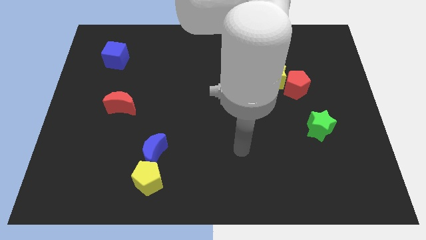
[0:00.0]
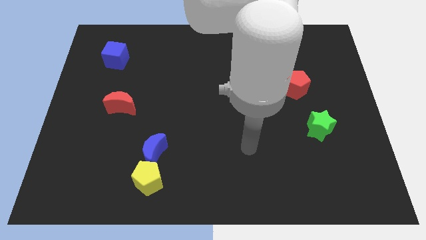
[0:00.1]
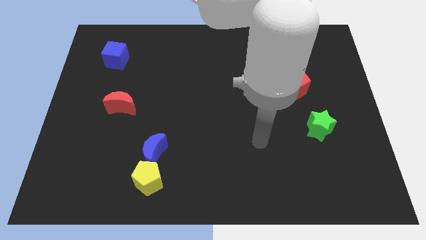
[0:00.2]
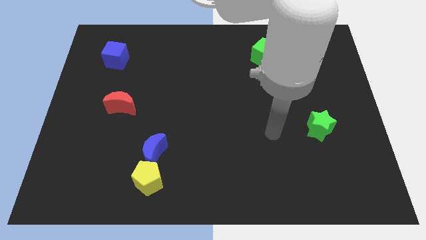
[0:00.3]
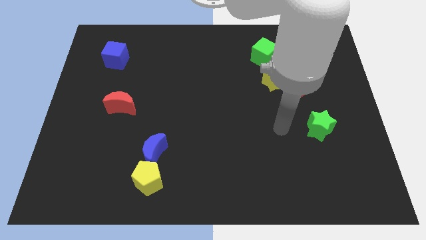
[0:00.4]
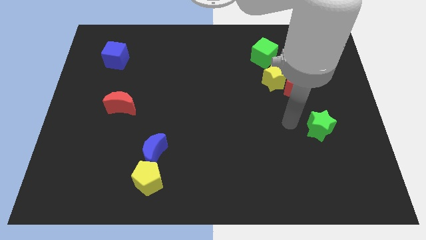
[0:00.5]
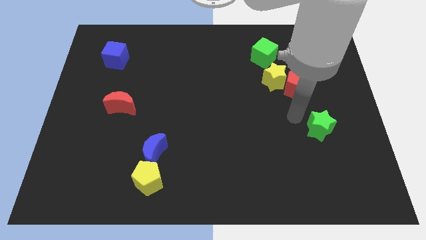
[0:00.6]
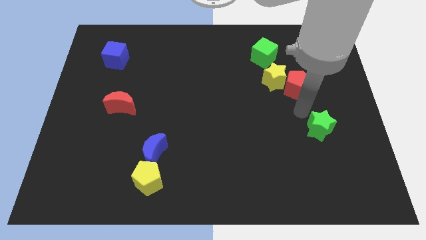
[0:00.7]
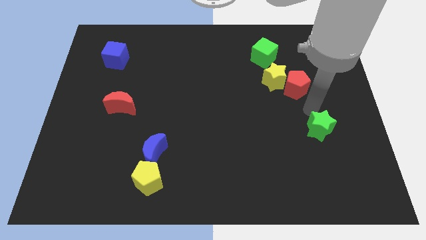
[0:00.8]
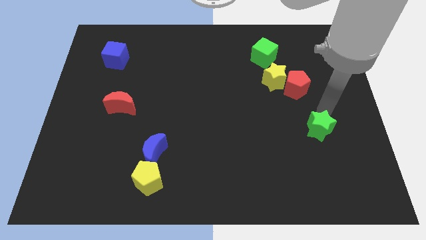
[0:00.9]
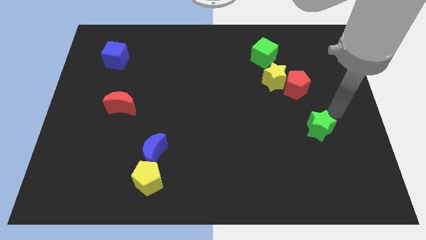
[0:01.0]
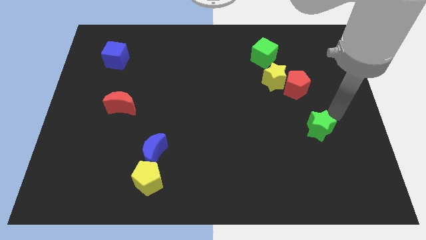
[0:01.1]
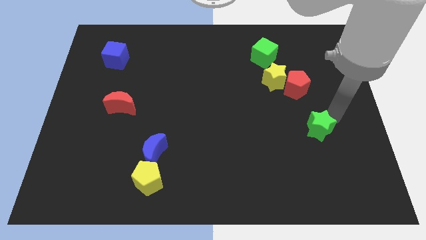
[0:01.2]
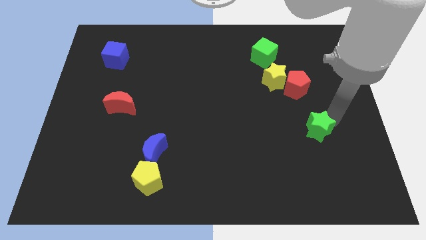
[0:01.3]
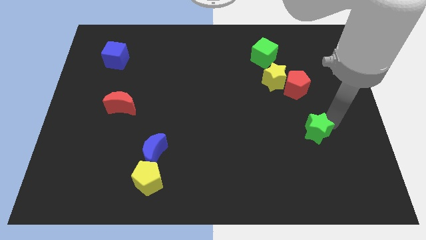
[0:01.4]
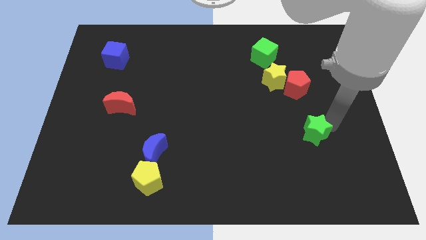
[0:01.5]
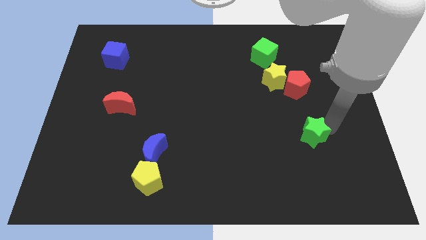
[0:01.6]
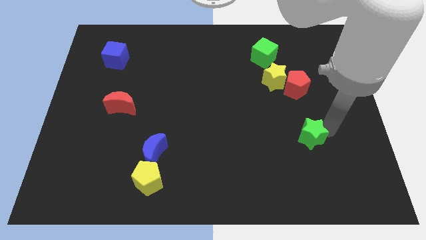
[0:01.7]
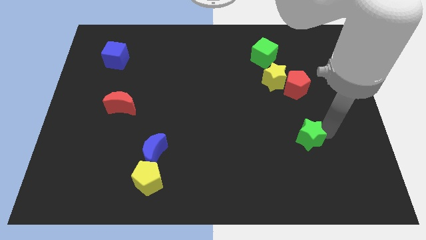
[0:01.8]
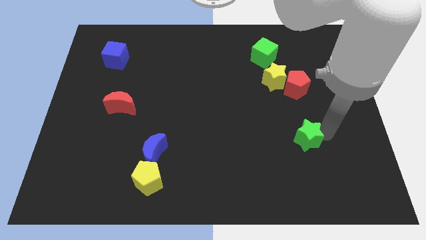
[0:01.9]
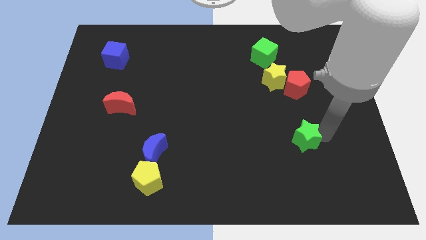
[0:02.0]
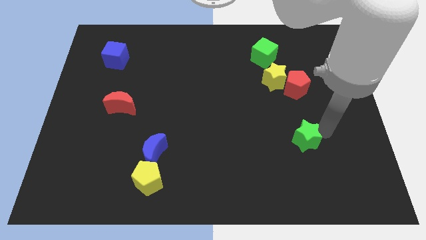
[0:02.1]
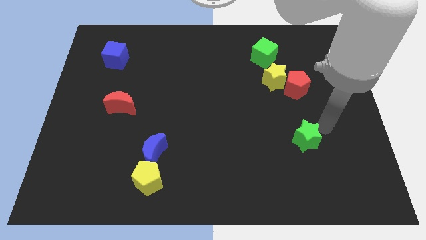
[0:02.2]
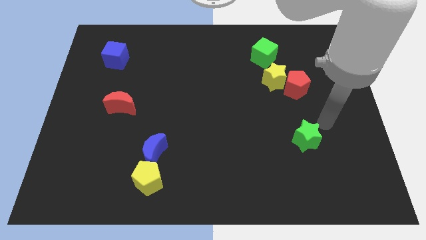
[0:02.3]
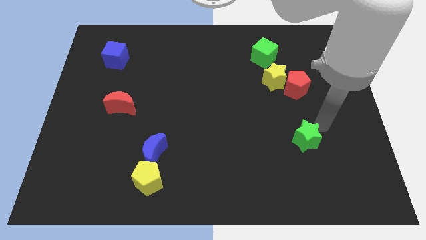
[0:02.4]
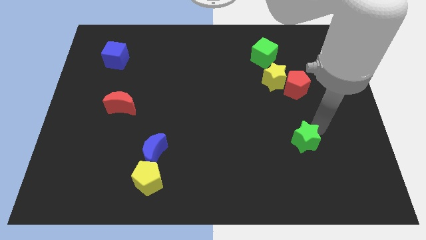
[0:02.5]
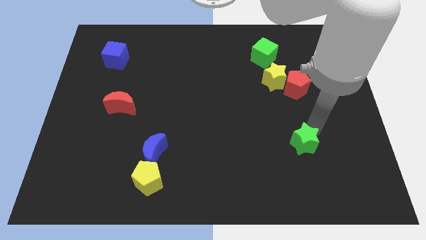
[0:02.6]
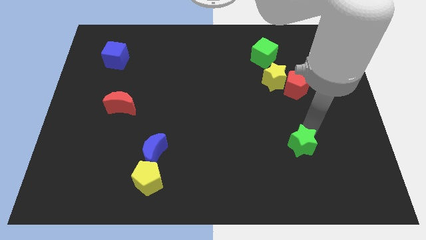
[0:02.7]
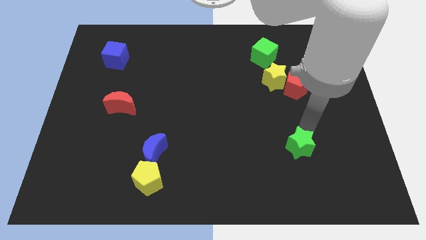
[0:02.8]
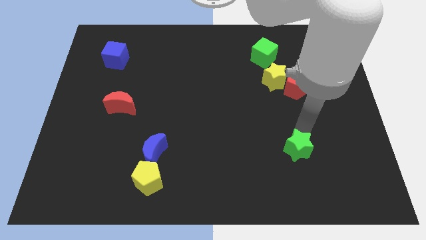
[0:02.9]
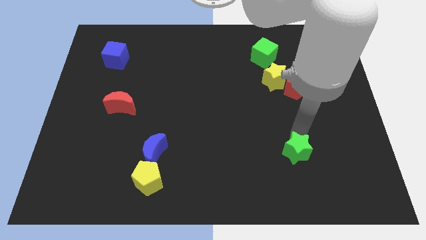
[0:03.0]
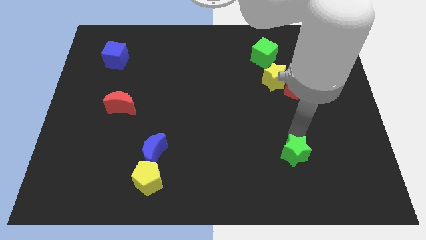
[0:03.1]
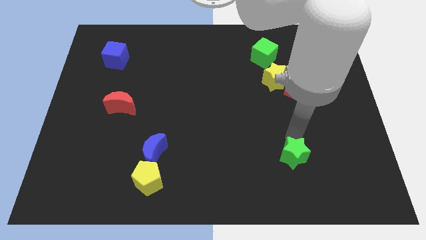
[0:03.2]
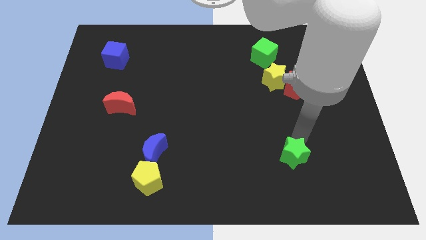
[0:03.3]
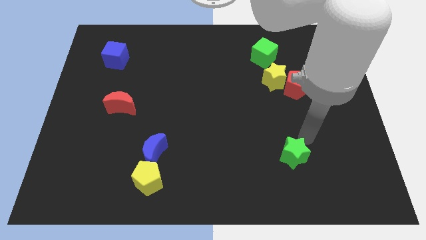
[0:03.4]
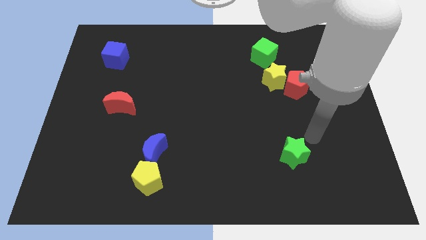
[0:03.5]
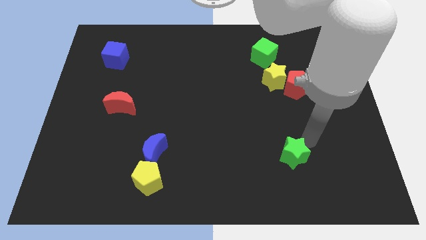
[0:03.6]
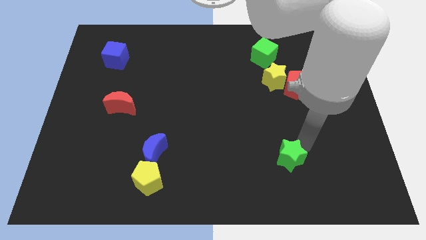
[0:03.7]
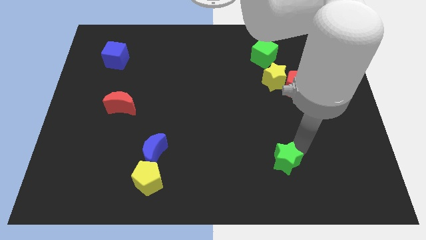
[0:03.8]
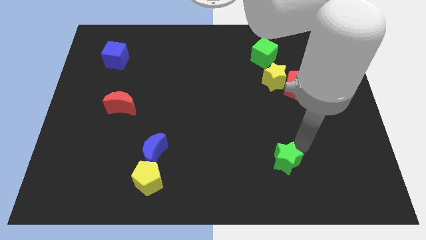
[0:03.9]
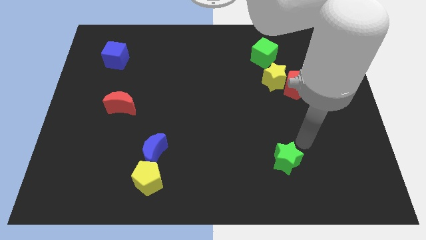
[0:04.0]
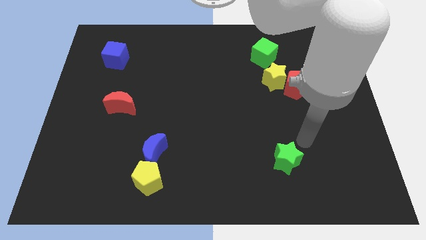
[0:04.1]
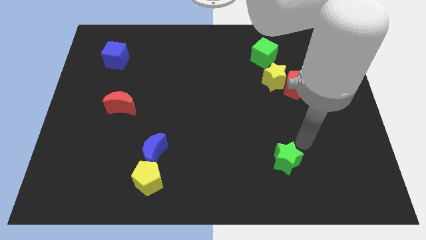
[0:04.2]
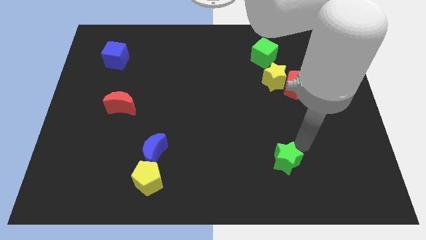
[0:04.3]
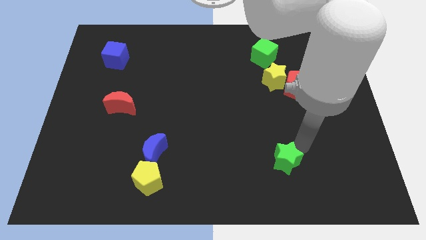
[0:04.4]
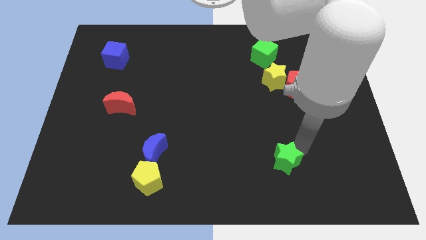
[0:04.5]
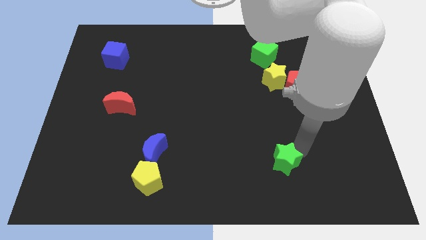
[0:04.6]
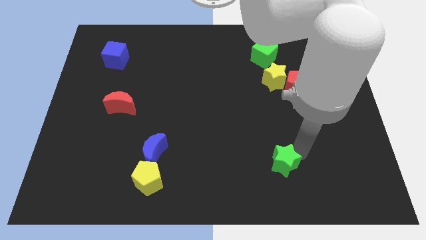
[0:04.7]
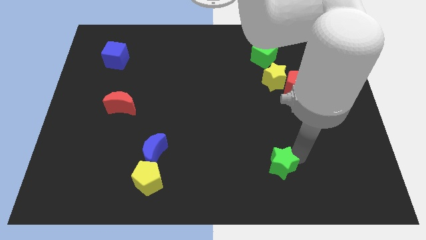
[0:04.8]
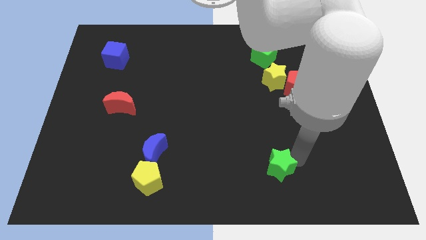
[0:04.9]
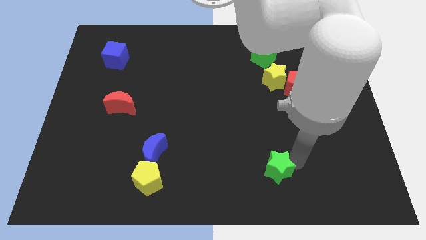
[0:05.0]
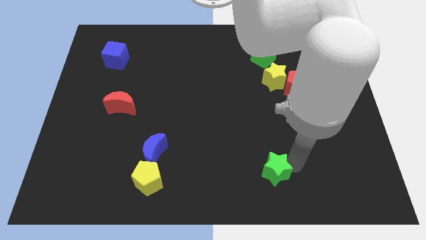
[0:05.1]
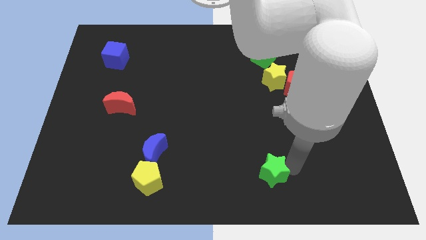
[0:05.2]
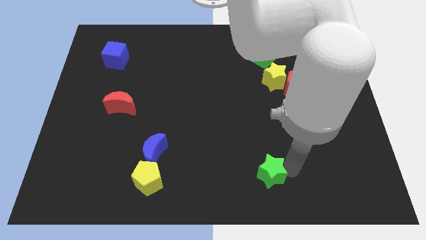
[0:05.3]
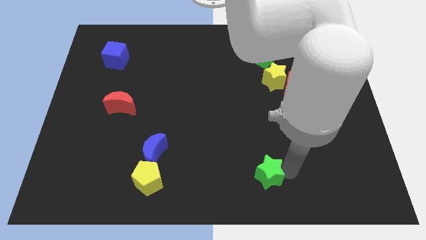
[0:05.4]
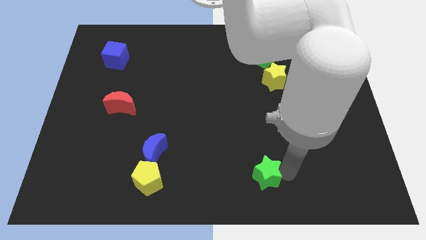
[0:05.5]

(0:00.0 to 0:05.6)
put the green star to the bottom
